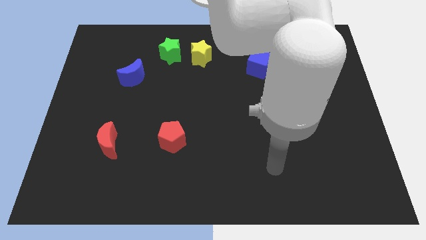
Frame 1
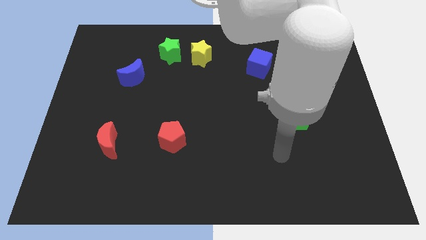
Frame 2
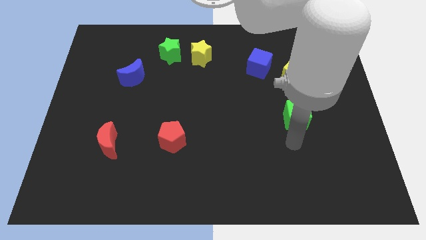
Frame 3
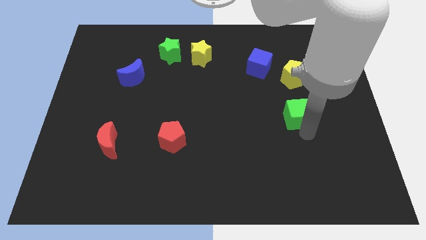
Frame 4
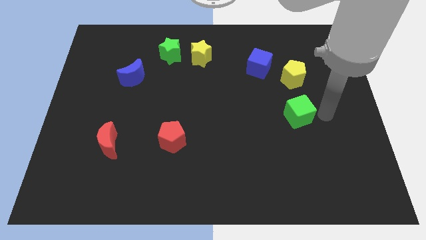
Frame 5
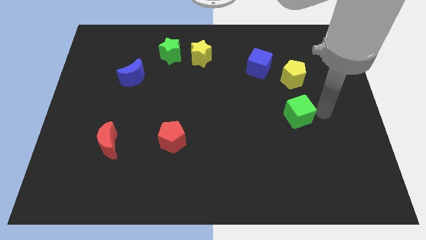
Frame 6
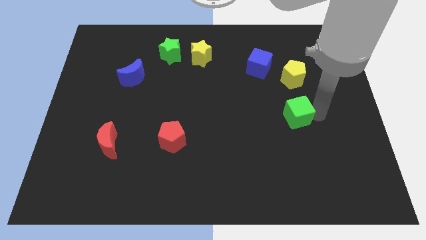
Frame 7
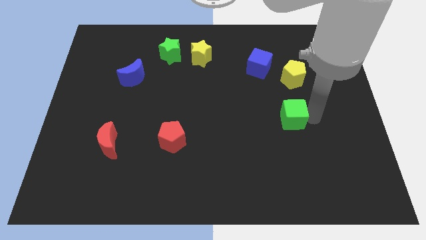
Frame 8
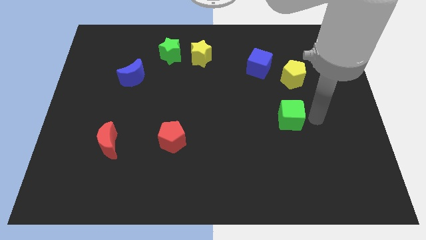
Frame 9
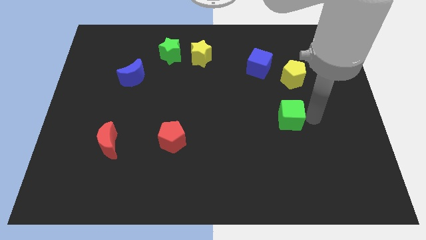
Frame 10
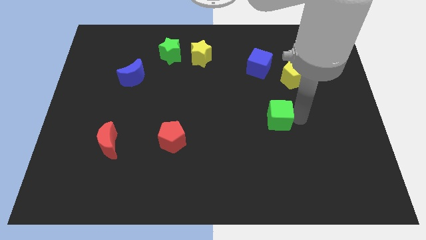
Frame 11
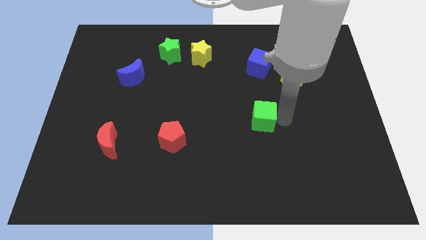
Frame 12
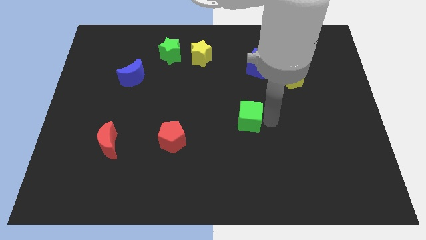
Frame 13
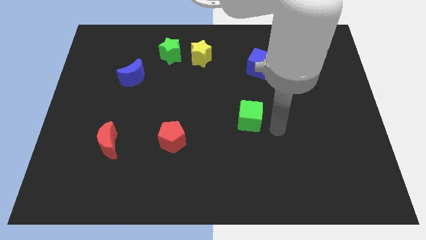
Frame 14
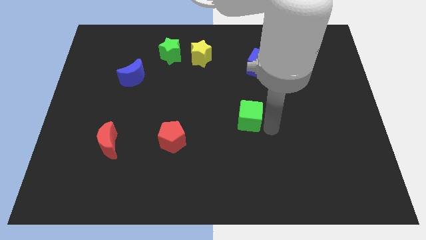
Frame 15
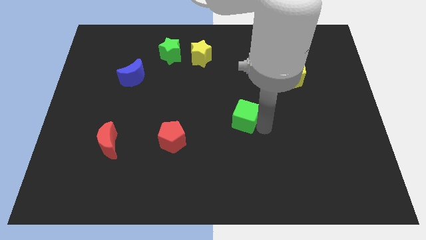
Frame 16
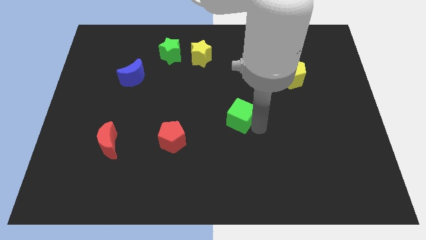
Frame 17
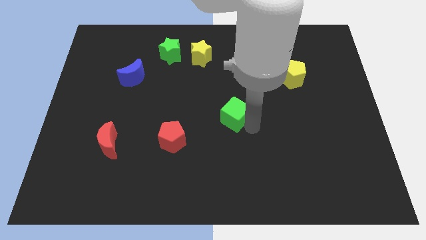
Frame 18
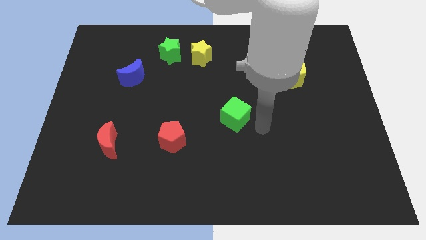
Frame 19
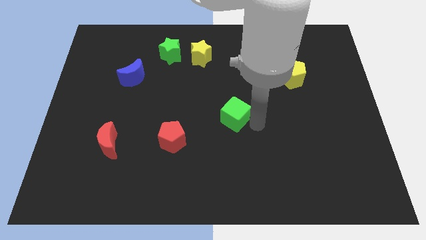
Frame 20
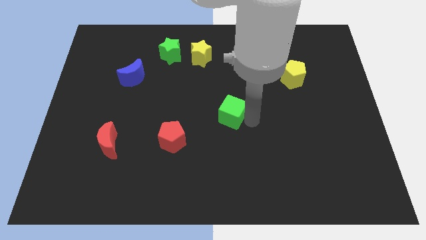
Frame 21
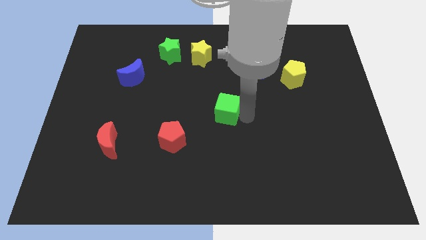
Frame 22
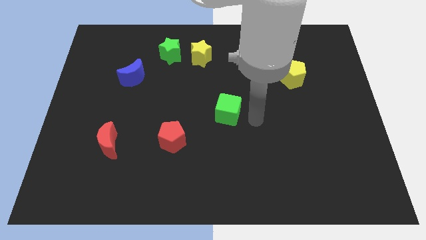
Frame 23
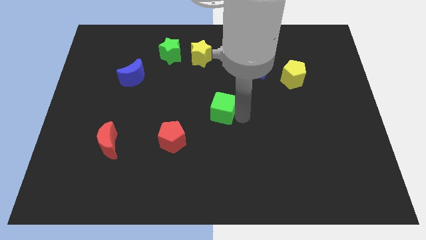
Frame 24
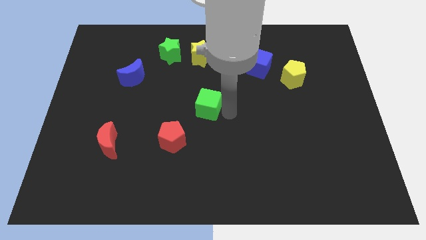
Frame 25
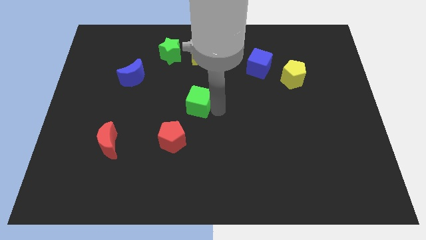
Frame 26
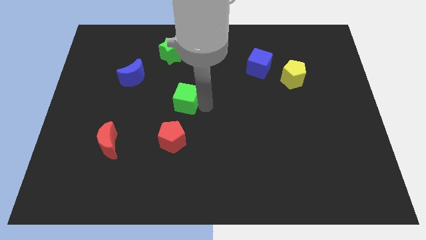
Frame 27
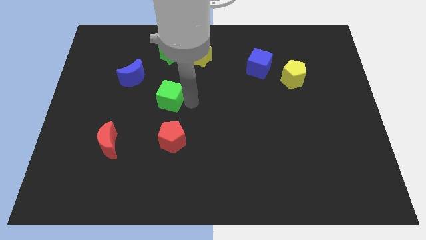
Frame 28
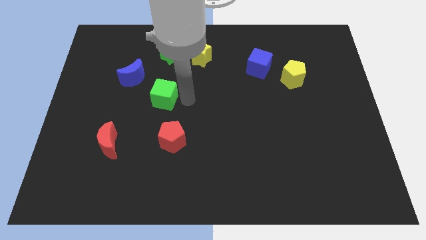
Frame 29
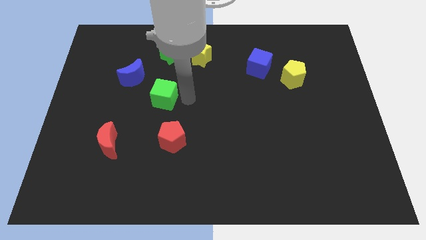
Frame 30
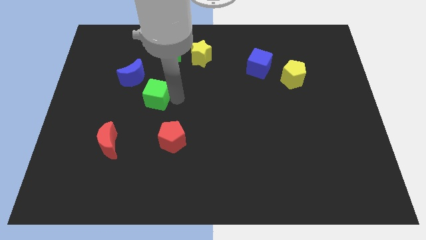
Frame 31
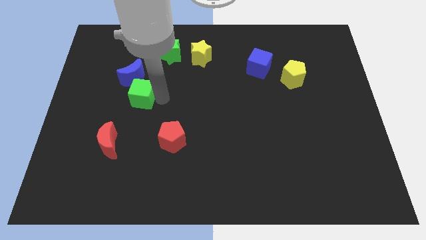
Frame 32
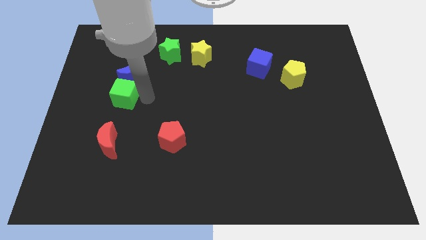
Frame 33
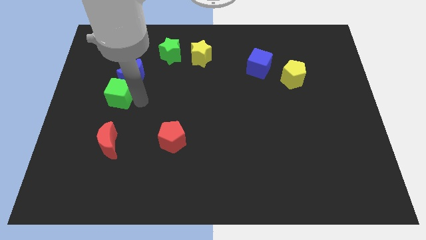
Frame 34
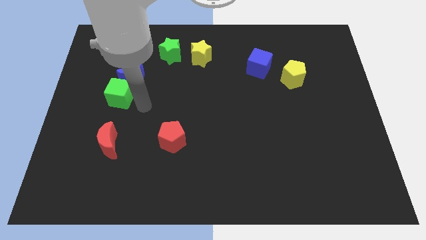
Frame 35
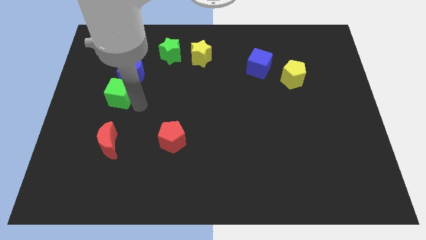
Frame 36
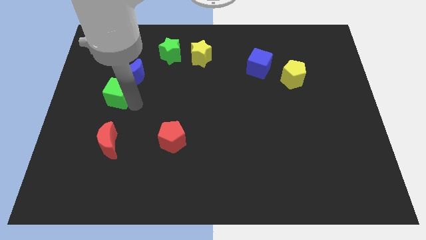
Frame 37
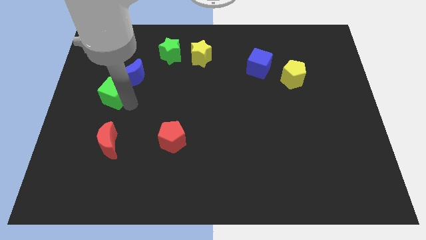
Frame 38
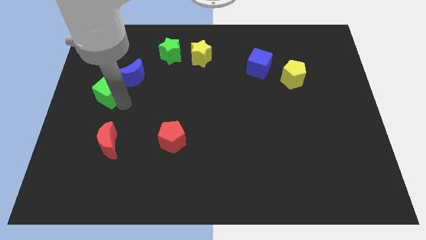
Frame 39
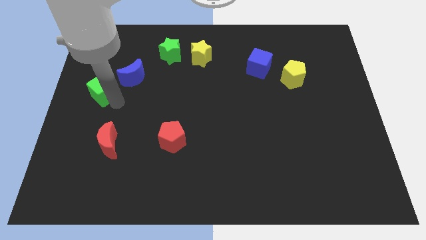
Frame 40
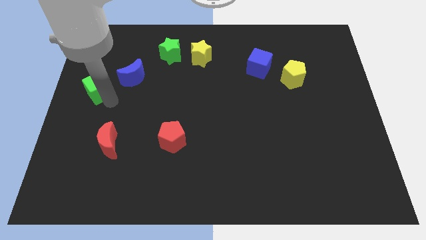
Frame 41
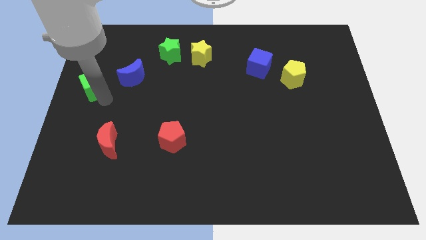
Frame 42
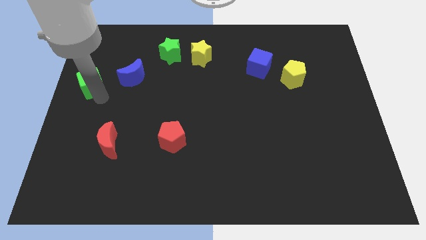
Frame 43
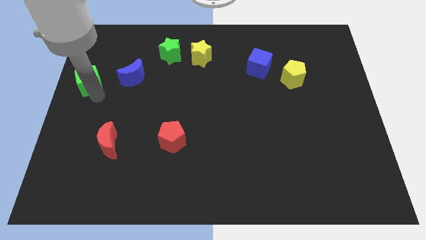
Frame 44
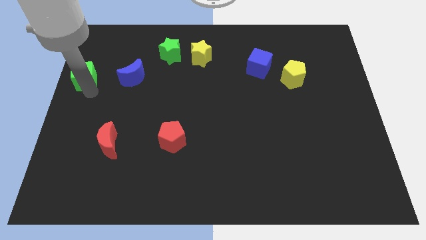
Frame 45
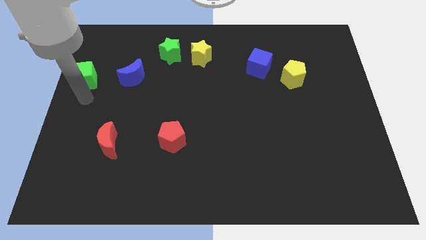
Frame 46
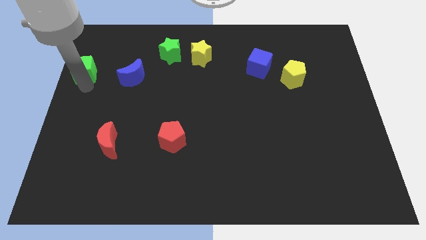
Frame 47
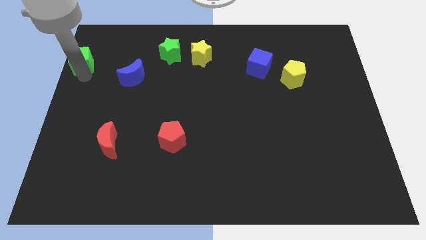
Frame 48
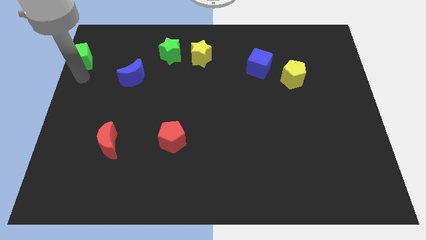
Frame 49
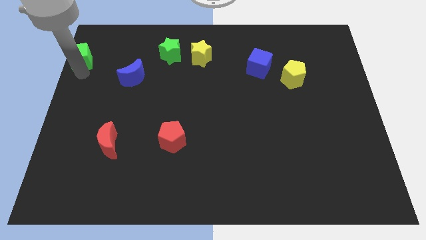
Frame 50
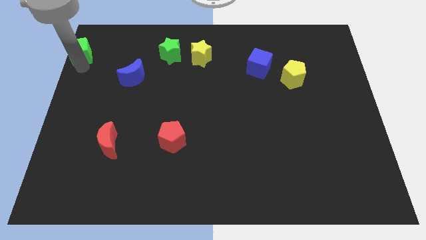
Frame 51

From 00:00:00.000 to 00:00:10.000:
push the green cube to the top left of the board

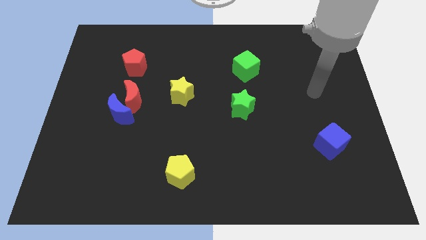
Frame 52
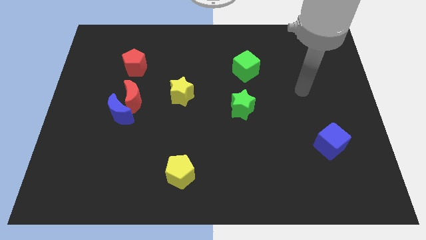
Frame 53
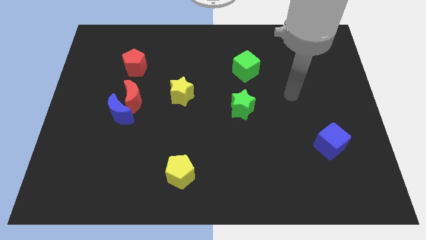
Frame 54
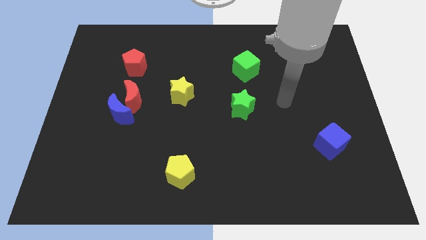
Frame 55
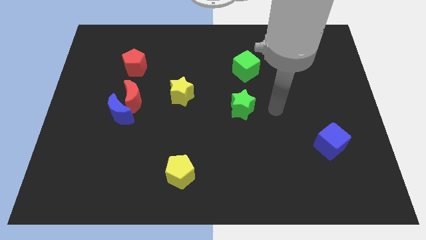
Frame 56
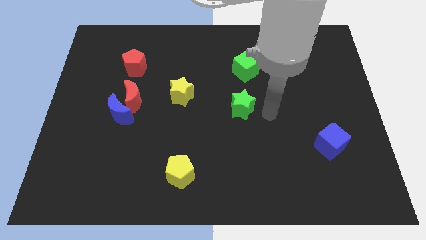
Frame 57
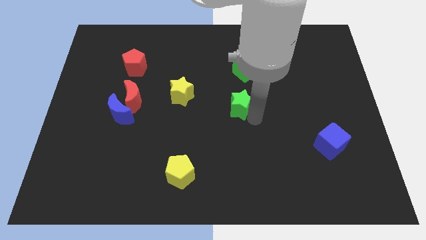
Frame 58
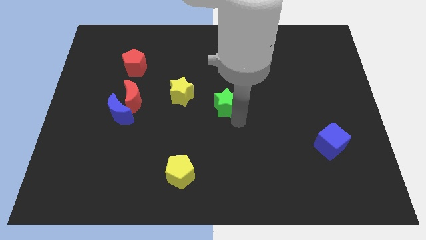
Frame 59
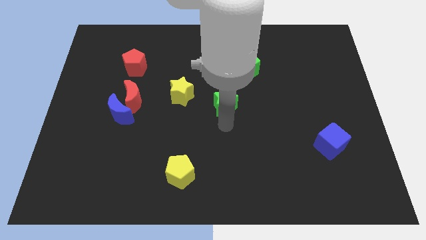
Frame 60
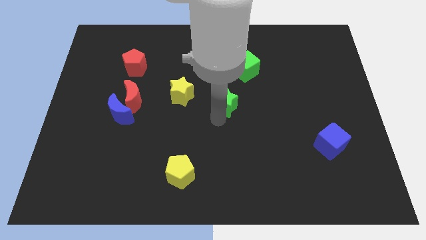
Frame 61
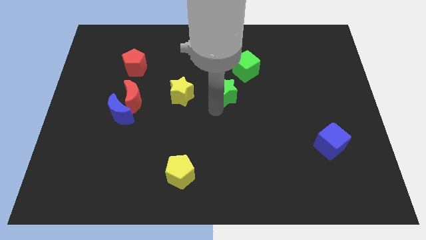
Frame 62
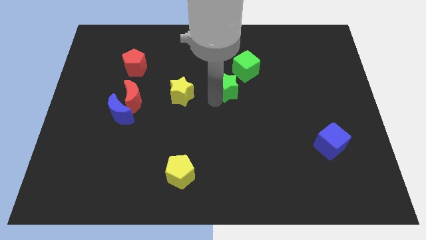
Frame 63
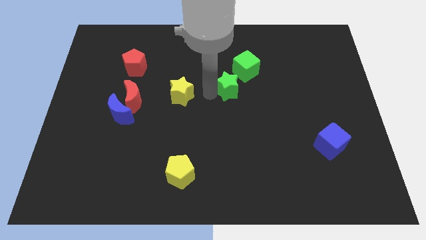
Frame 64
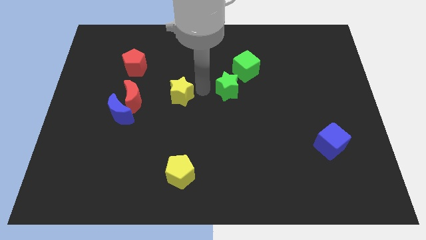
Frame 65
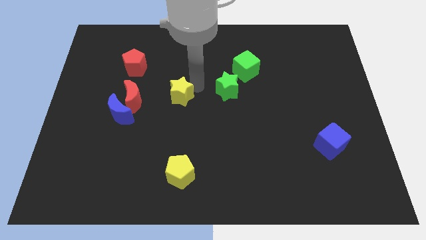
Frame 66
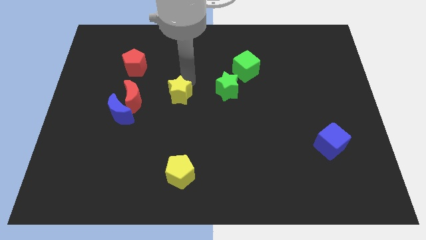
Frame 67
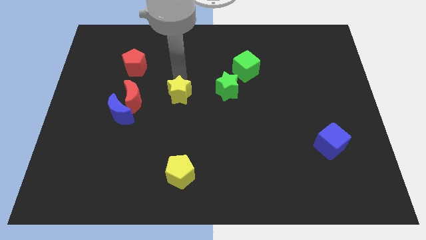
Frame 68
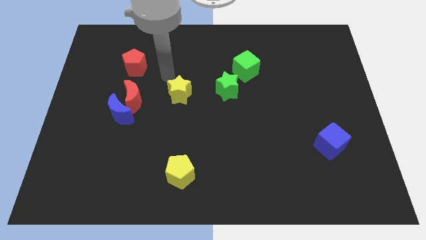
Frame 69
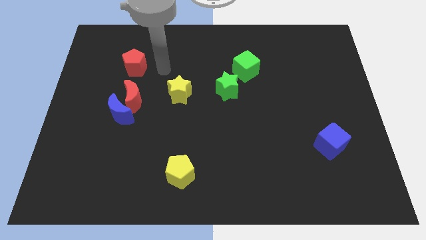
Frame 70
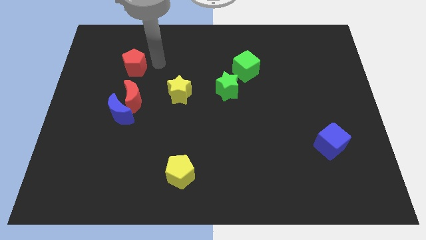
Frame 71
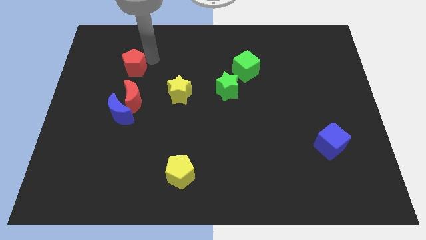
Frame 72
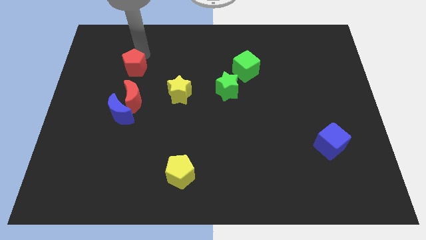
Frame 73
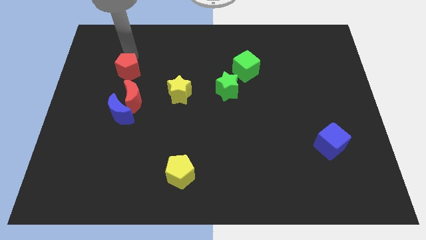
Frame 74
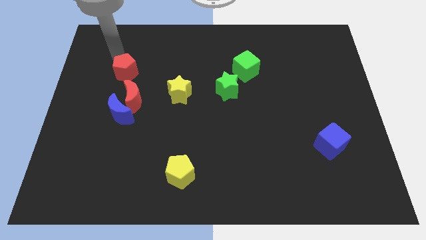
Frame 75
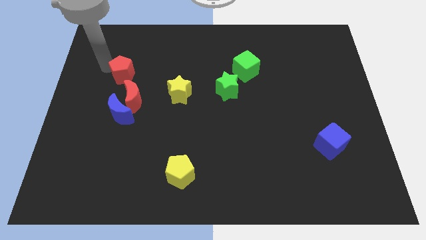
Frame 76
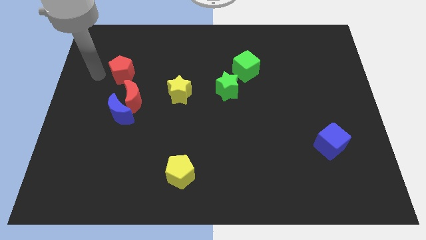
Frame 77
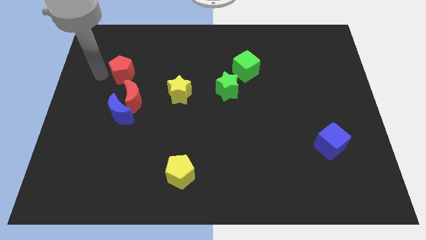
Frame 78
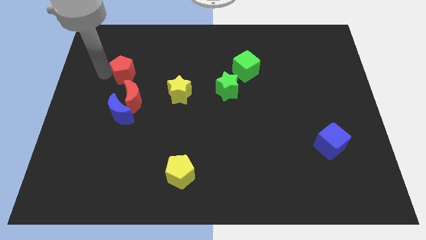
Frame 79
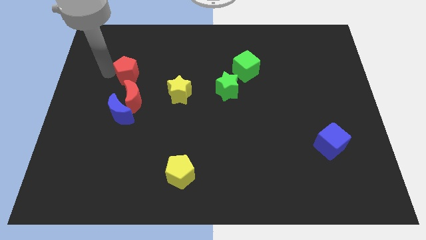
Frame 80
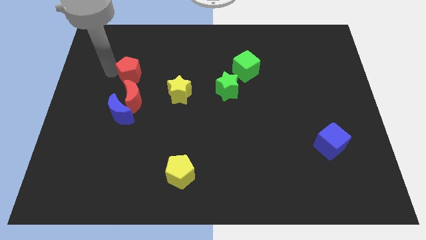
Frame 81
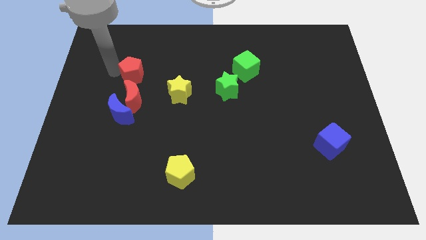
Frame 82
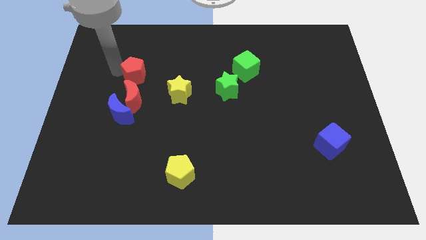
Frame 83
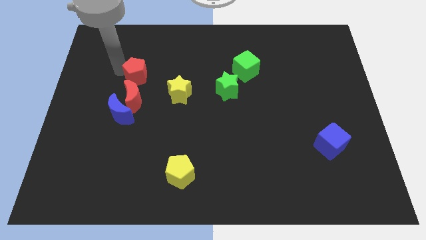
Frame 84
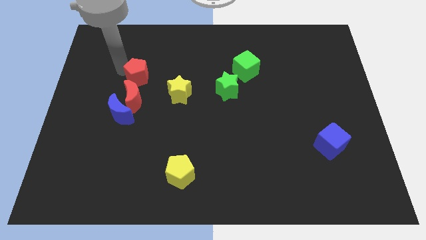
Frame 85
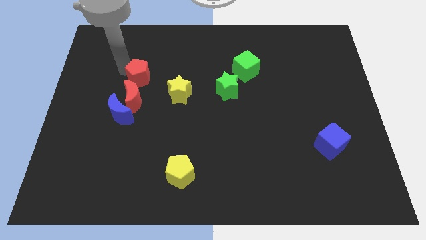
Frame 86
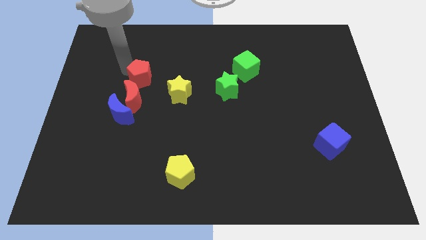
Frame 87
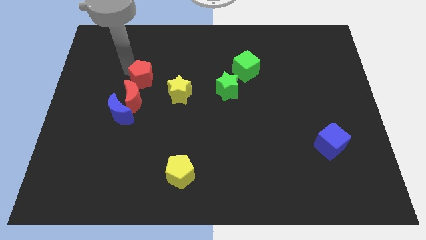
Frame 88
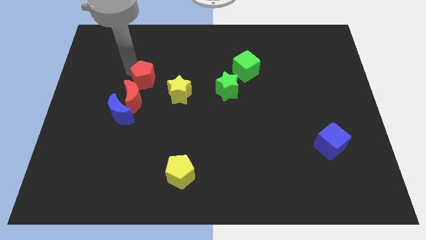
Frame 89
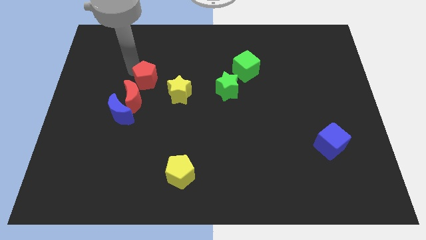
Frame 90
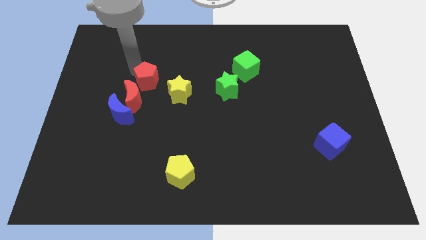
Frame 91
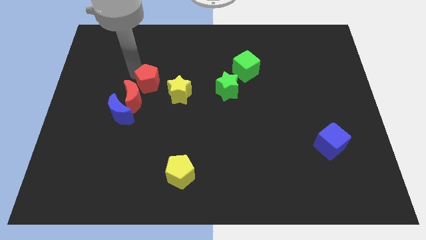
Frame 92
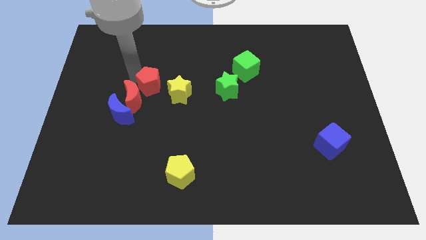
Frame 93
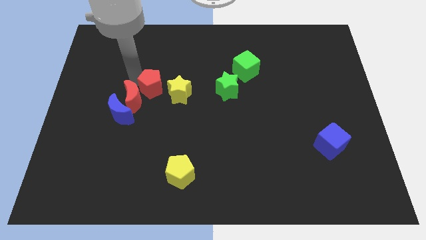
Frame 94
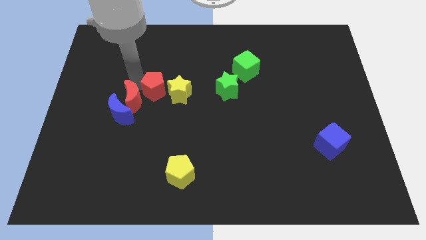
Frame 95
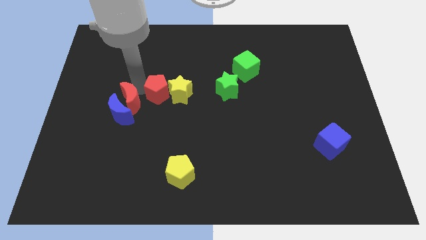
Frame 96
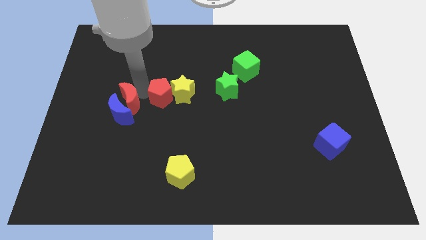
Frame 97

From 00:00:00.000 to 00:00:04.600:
move the red pentagon to the middle
